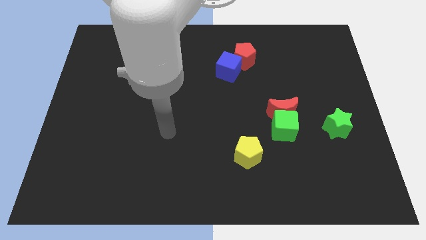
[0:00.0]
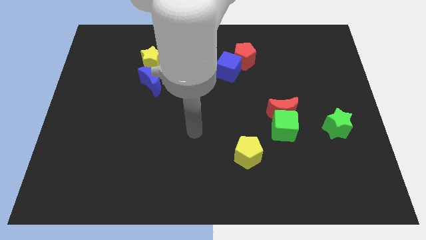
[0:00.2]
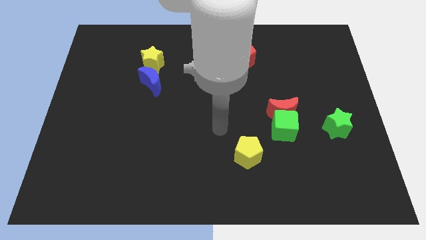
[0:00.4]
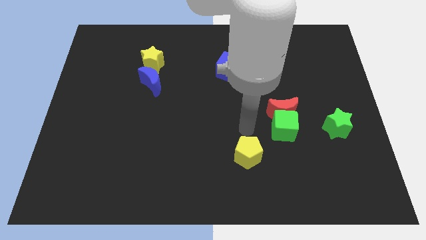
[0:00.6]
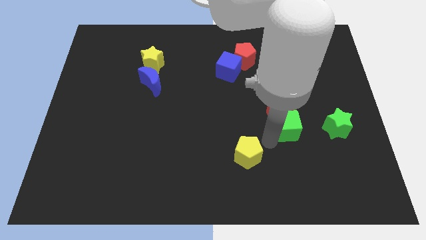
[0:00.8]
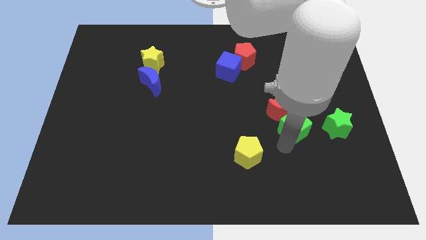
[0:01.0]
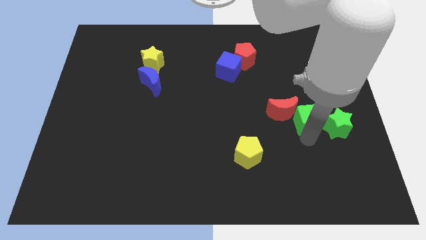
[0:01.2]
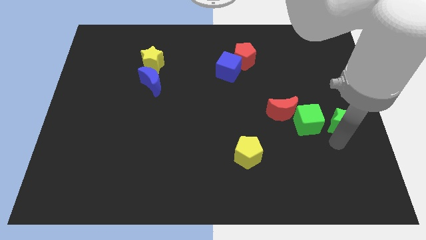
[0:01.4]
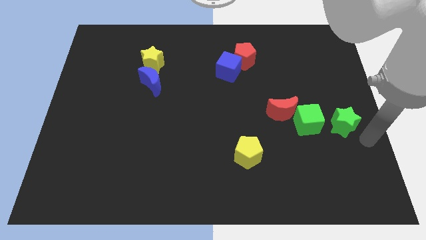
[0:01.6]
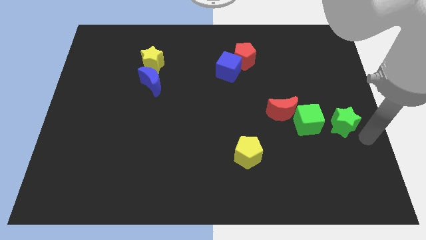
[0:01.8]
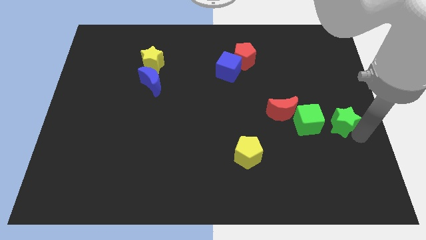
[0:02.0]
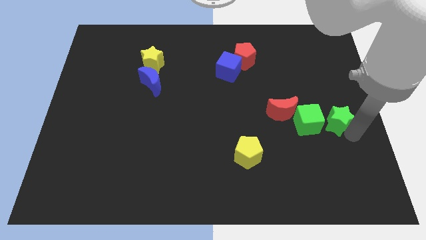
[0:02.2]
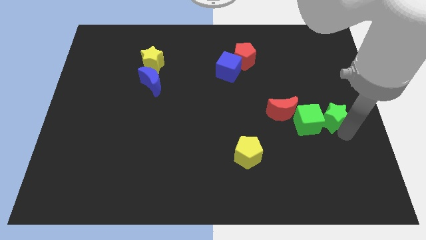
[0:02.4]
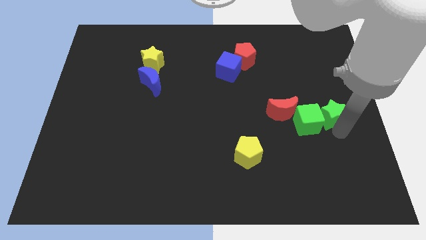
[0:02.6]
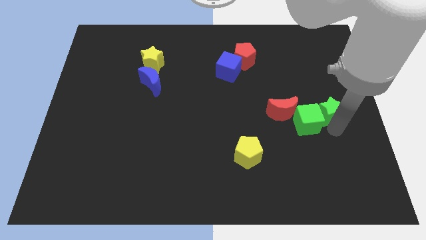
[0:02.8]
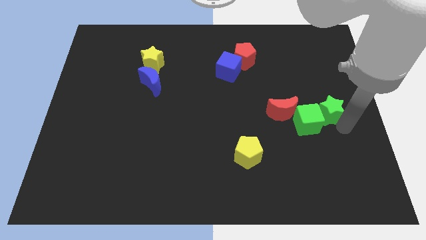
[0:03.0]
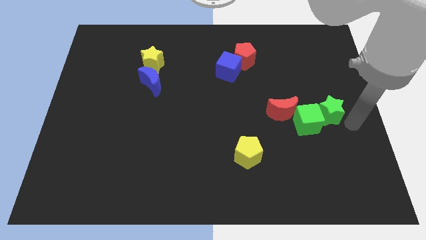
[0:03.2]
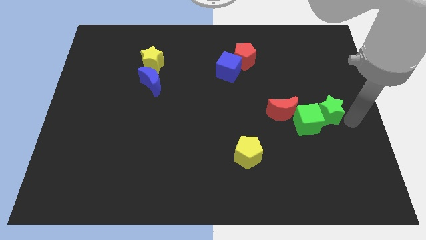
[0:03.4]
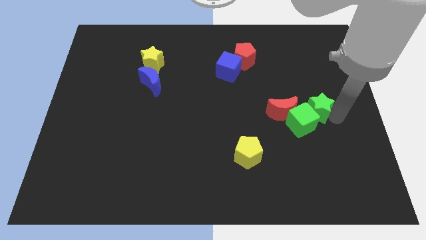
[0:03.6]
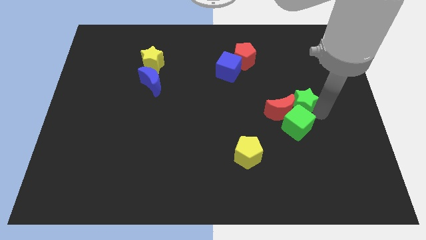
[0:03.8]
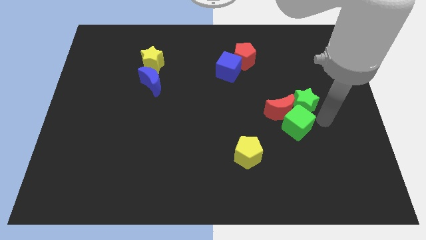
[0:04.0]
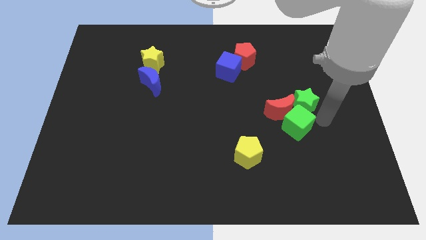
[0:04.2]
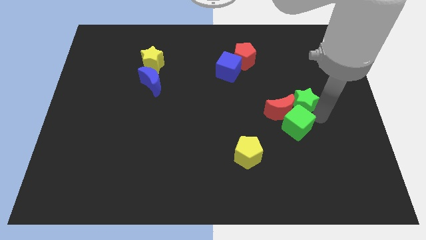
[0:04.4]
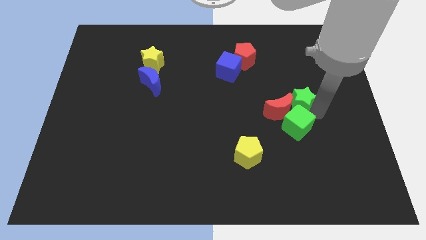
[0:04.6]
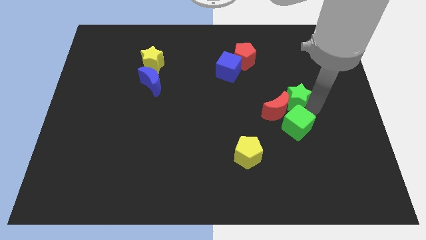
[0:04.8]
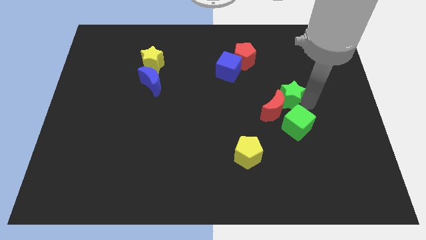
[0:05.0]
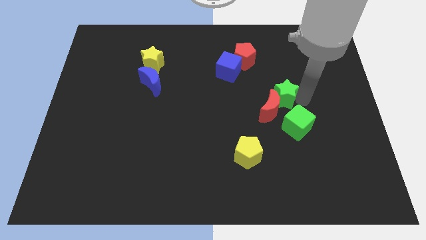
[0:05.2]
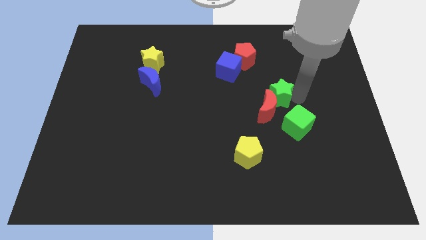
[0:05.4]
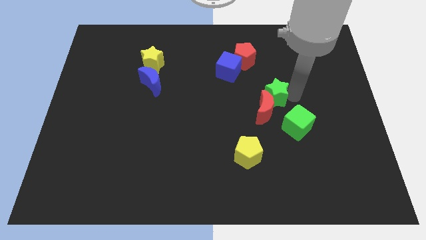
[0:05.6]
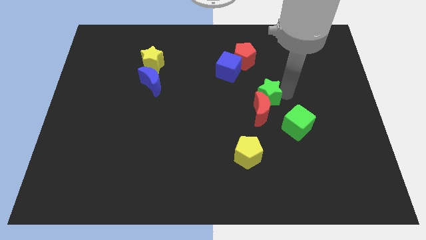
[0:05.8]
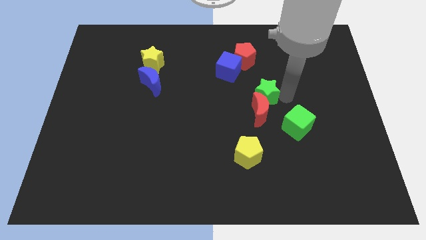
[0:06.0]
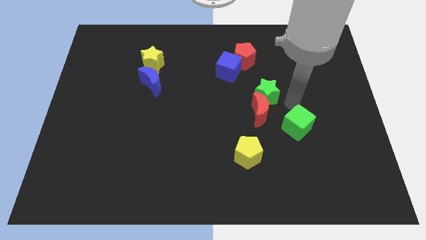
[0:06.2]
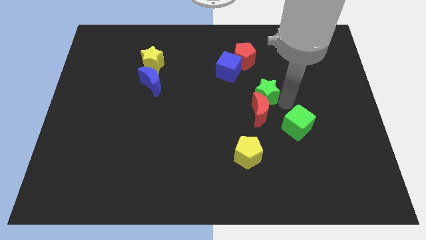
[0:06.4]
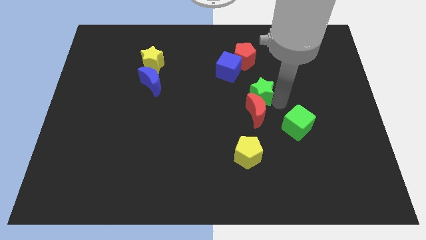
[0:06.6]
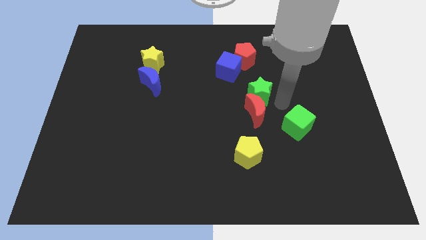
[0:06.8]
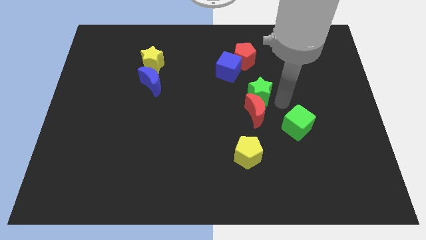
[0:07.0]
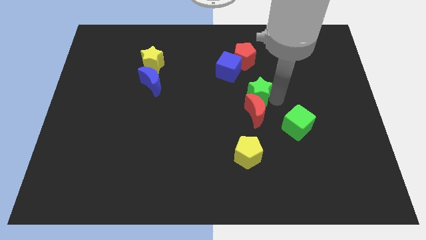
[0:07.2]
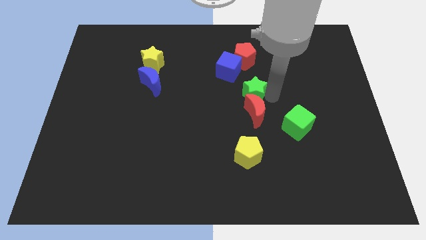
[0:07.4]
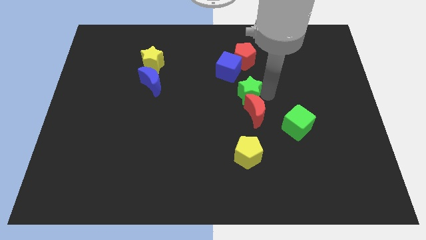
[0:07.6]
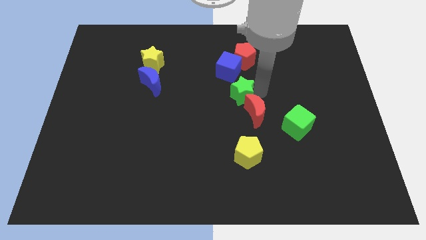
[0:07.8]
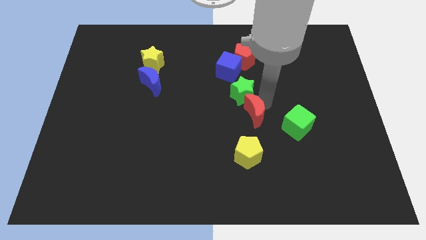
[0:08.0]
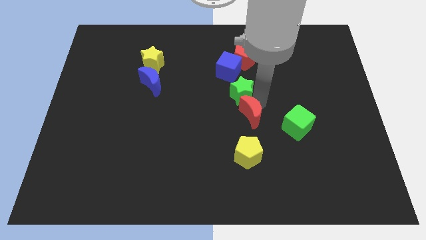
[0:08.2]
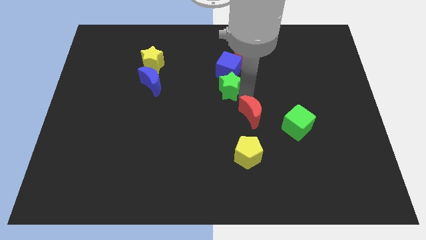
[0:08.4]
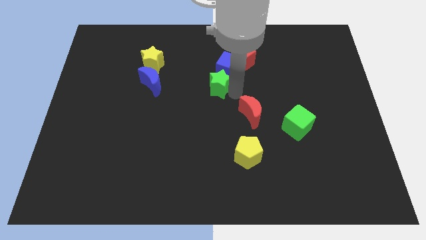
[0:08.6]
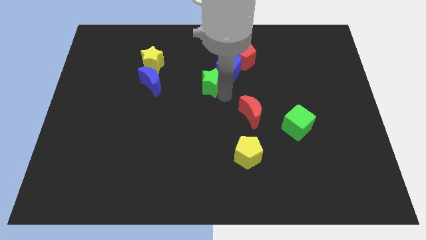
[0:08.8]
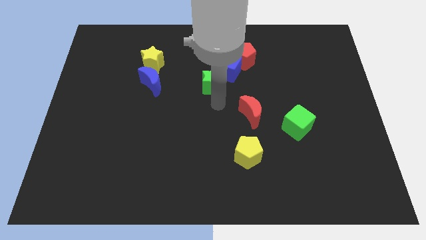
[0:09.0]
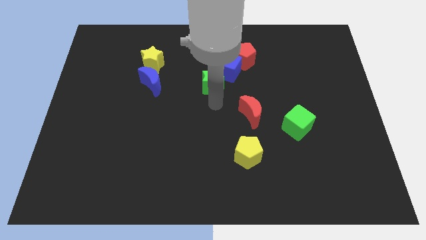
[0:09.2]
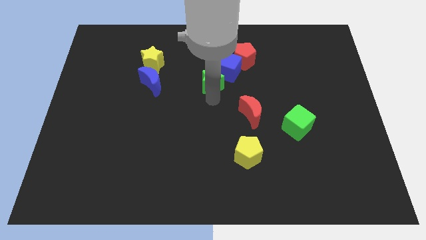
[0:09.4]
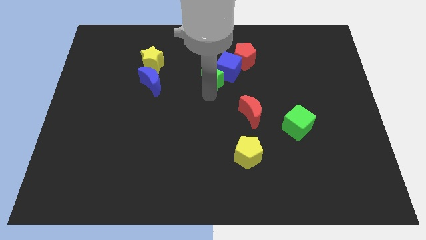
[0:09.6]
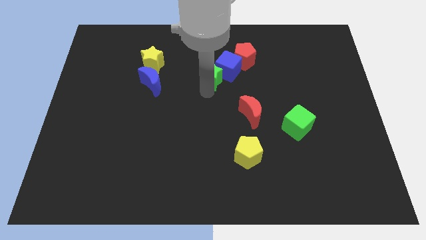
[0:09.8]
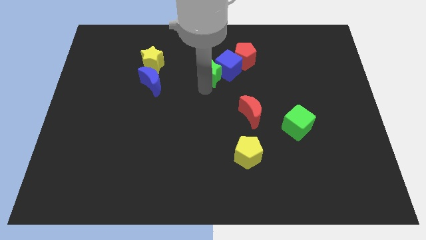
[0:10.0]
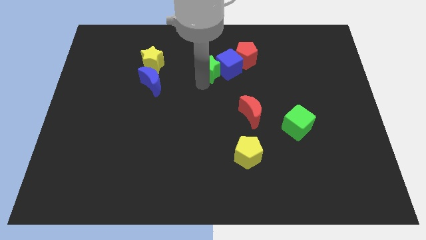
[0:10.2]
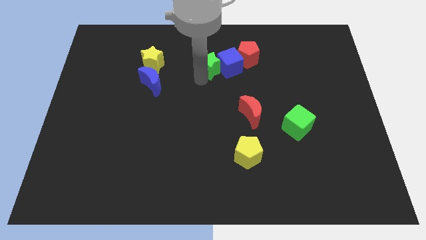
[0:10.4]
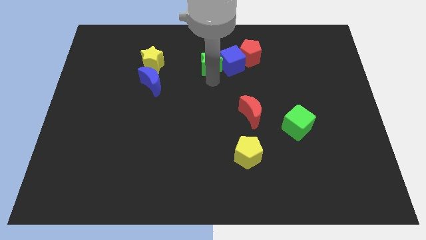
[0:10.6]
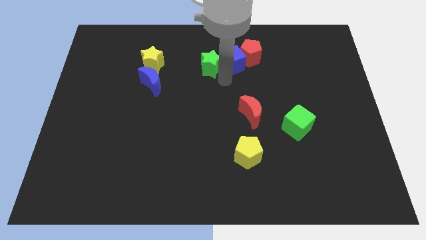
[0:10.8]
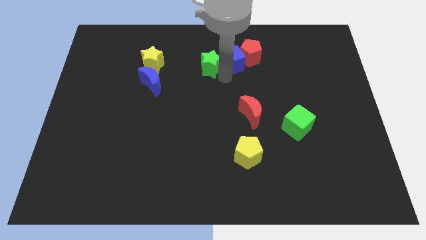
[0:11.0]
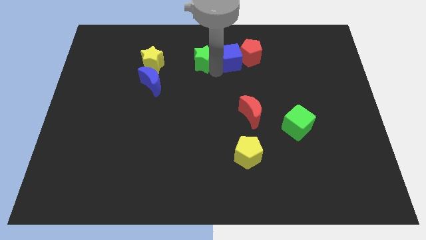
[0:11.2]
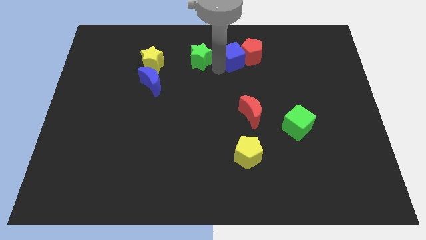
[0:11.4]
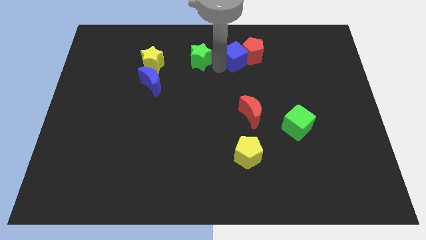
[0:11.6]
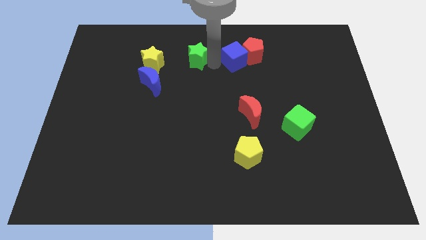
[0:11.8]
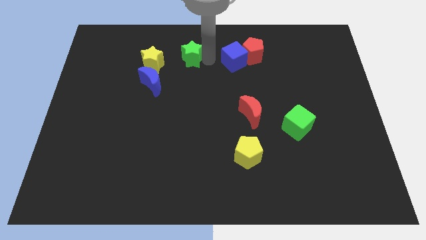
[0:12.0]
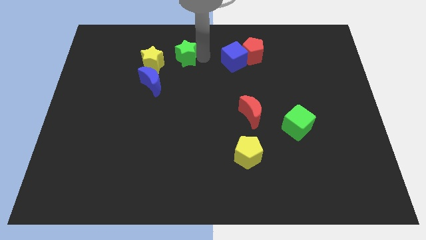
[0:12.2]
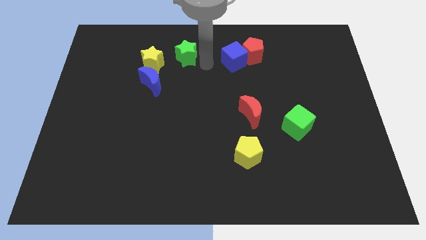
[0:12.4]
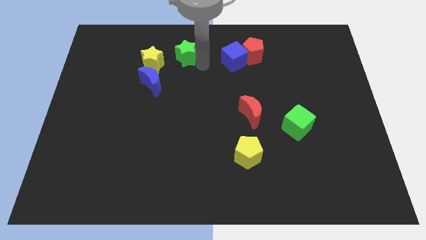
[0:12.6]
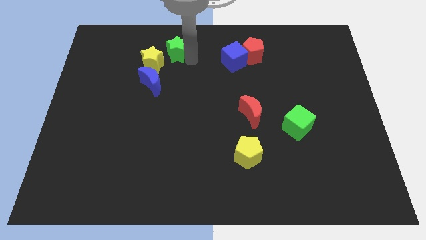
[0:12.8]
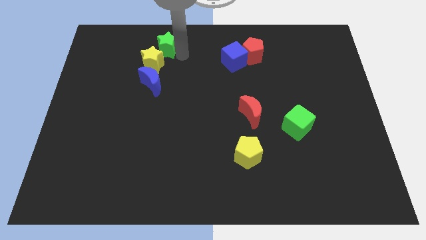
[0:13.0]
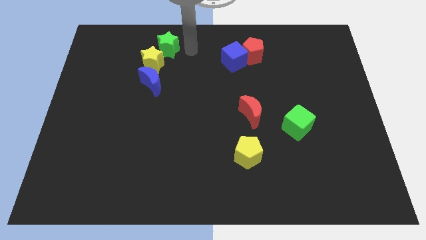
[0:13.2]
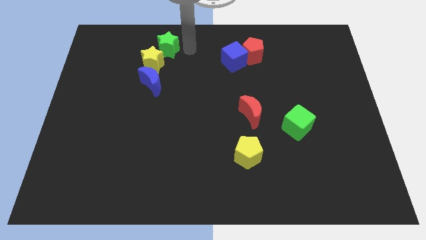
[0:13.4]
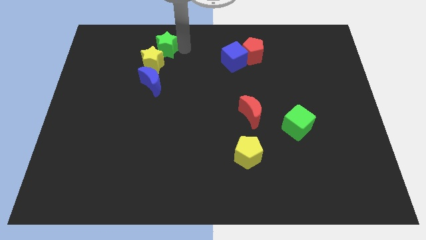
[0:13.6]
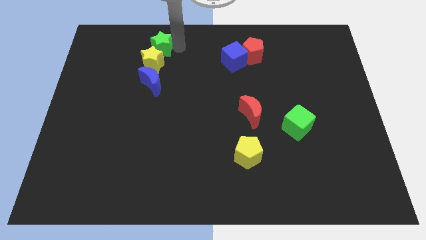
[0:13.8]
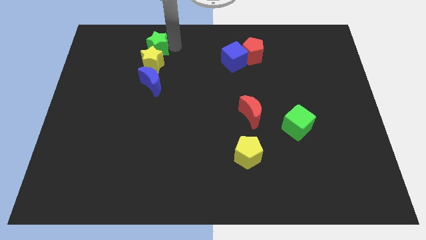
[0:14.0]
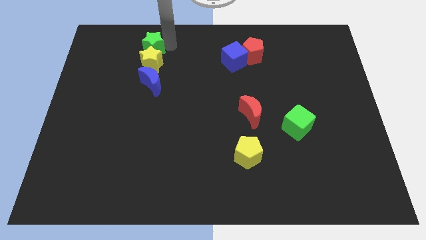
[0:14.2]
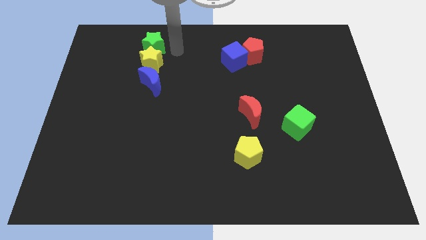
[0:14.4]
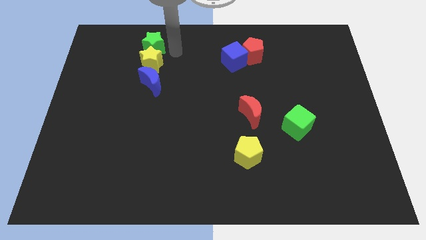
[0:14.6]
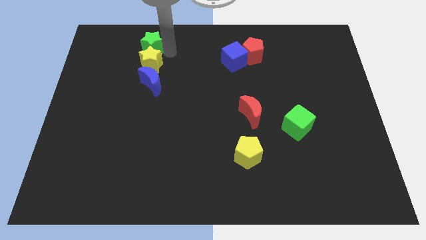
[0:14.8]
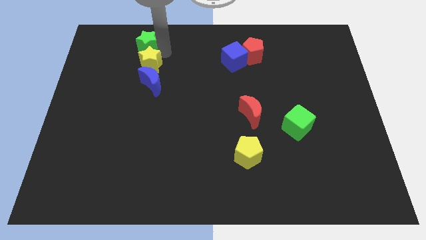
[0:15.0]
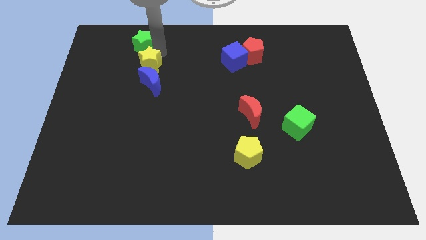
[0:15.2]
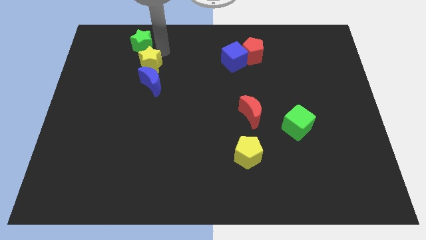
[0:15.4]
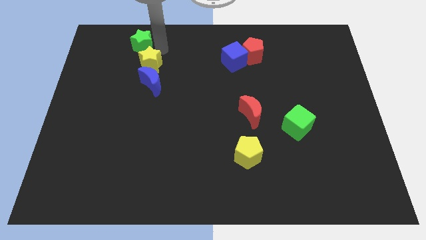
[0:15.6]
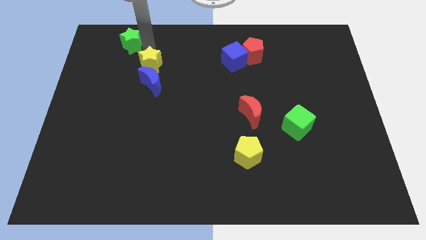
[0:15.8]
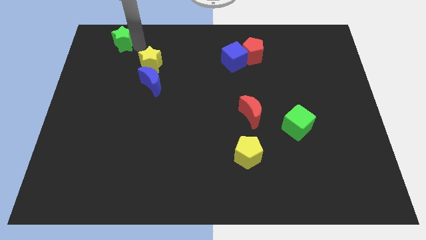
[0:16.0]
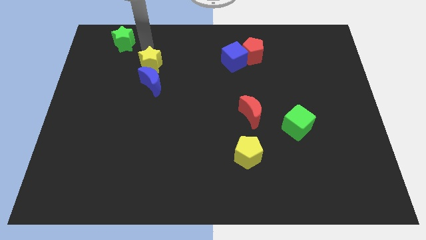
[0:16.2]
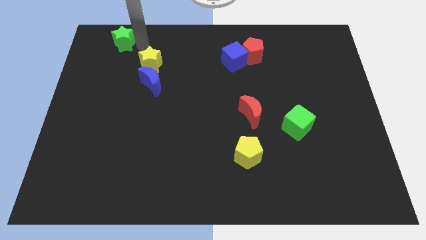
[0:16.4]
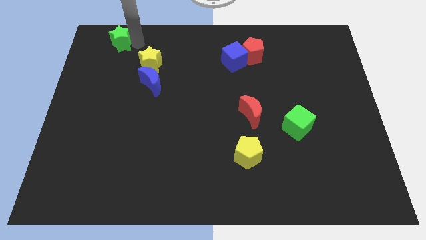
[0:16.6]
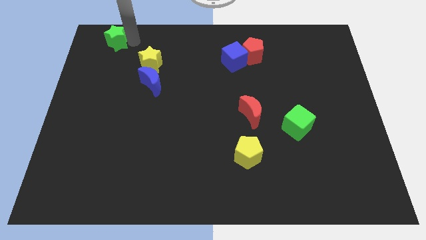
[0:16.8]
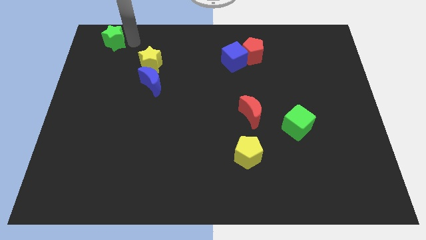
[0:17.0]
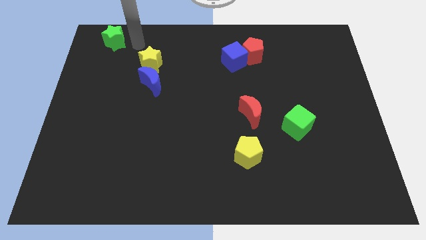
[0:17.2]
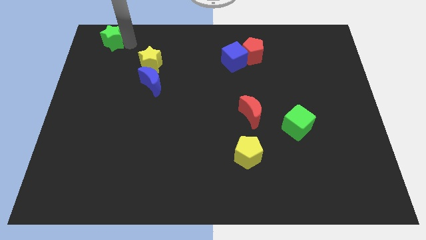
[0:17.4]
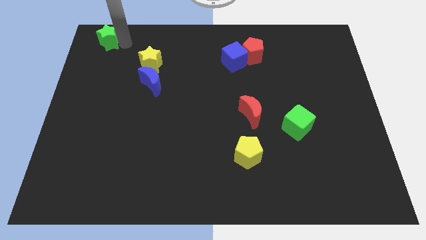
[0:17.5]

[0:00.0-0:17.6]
push the green star to the top left of the board
